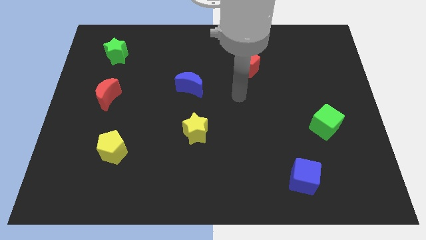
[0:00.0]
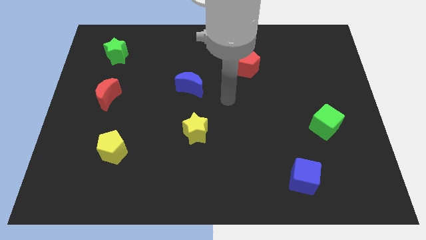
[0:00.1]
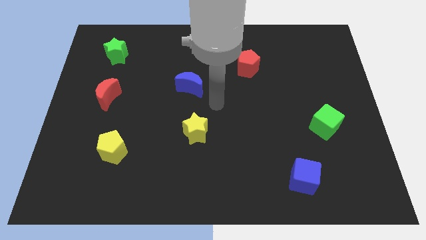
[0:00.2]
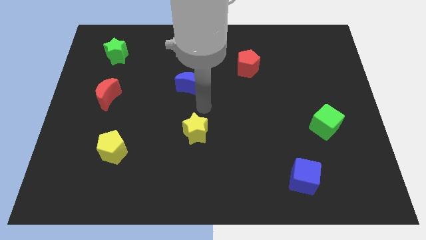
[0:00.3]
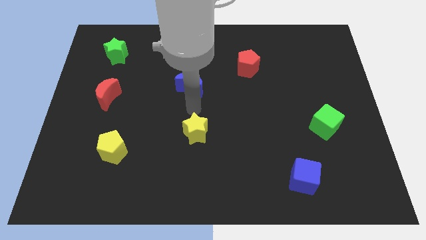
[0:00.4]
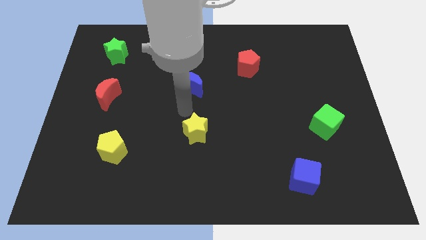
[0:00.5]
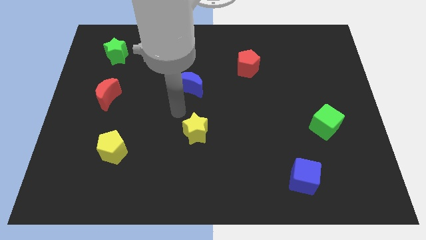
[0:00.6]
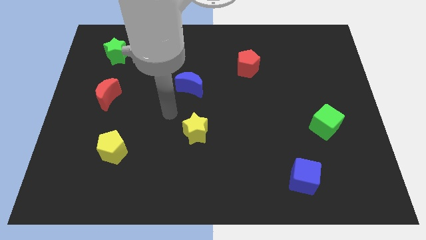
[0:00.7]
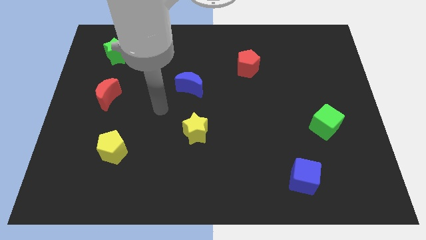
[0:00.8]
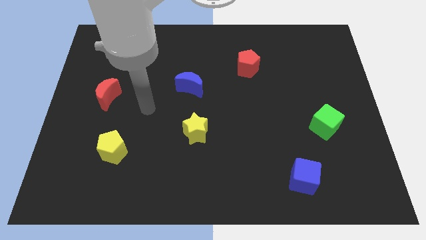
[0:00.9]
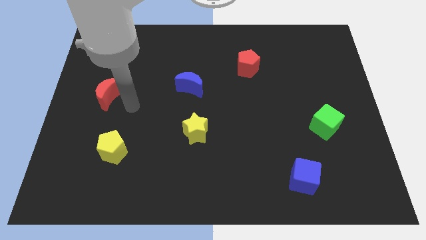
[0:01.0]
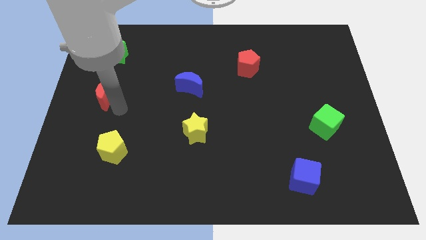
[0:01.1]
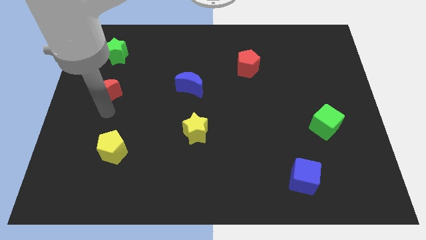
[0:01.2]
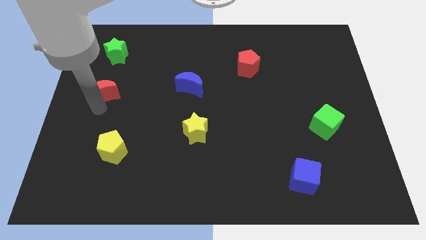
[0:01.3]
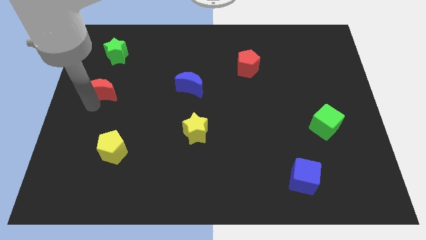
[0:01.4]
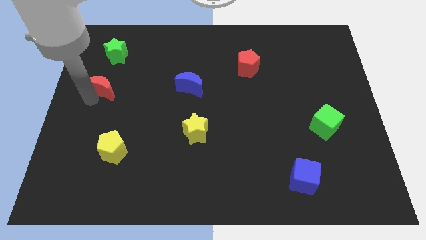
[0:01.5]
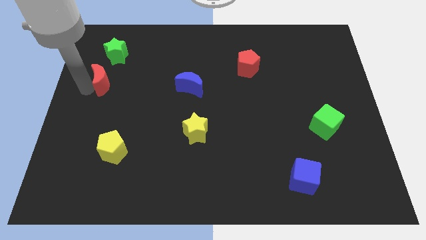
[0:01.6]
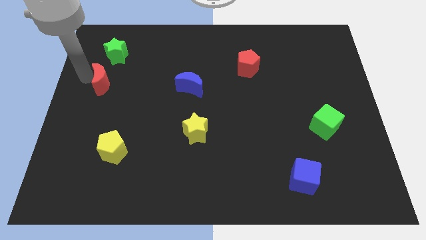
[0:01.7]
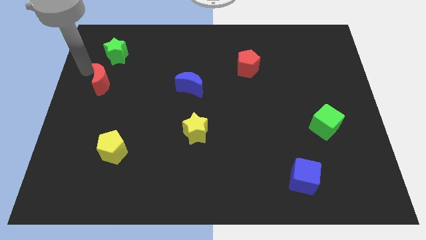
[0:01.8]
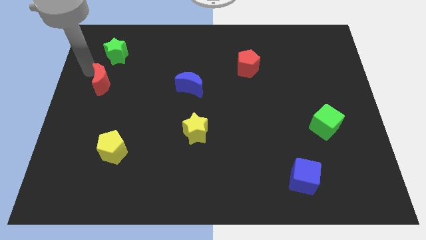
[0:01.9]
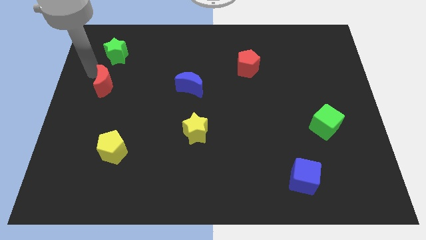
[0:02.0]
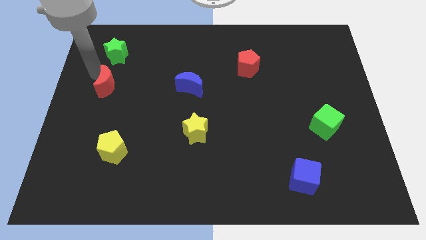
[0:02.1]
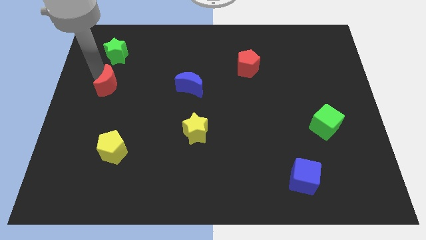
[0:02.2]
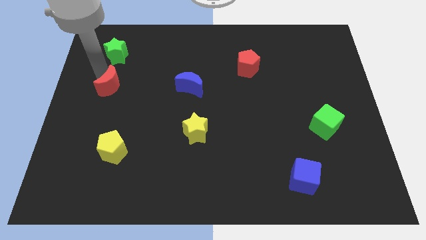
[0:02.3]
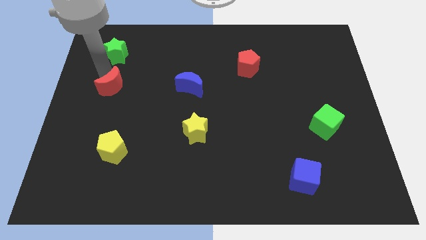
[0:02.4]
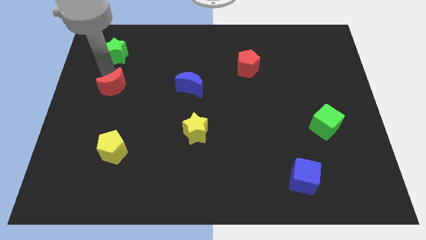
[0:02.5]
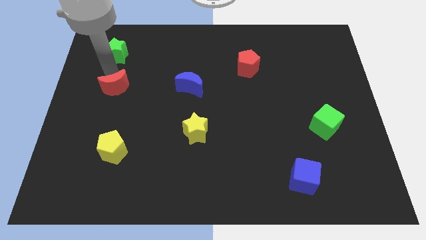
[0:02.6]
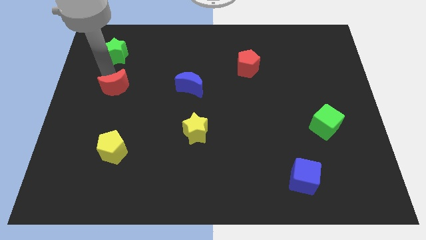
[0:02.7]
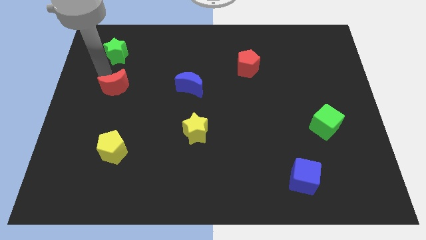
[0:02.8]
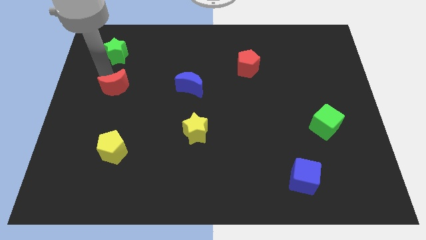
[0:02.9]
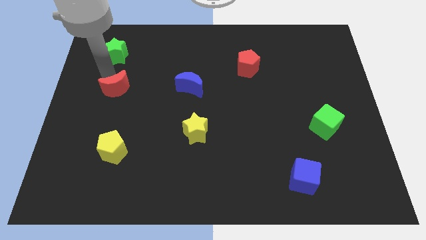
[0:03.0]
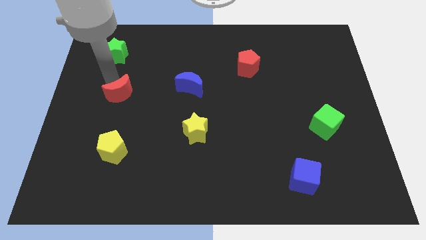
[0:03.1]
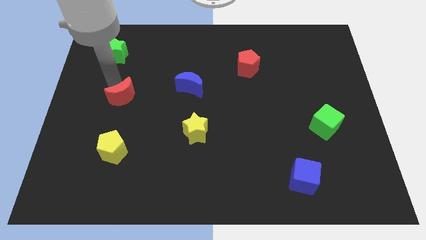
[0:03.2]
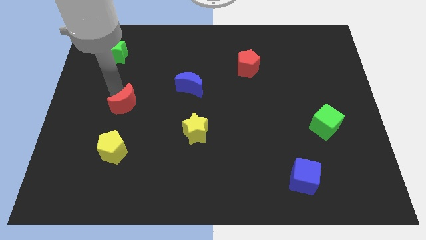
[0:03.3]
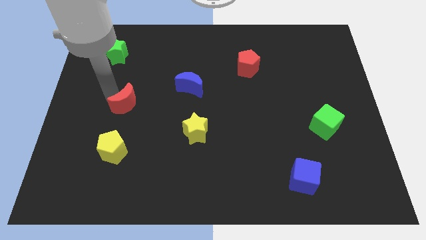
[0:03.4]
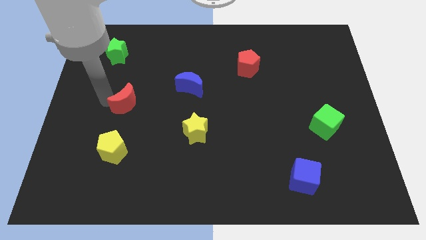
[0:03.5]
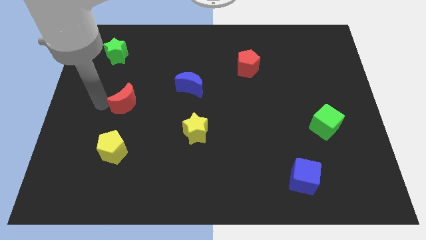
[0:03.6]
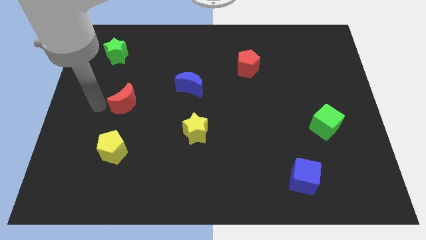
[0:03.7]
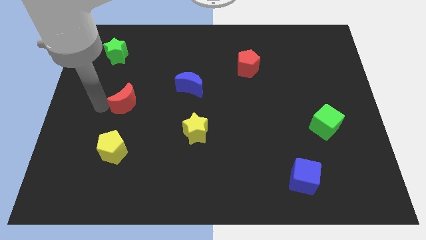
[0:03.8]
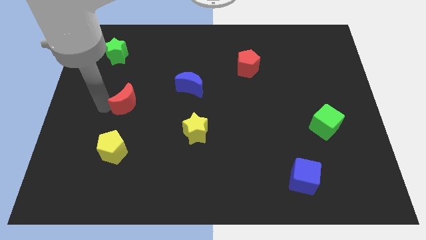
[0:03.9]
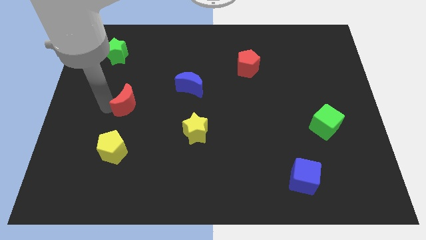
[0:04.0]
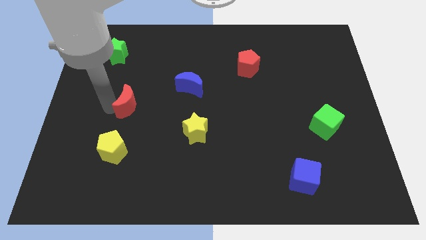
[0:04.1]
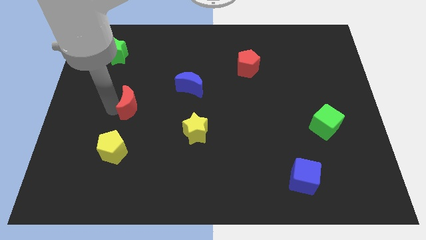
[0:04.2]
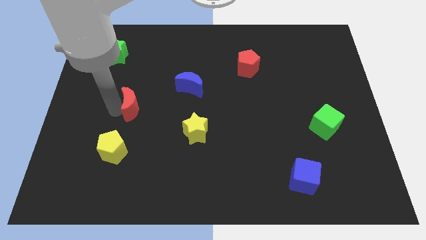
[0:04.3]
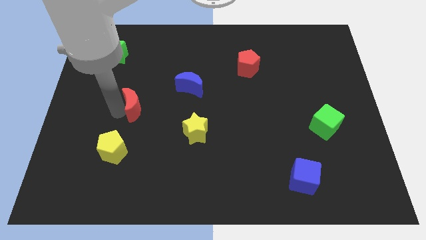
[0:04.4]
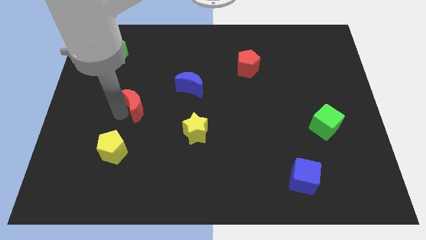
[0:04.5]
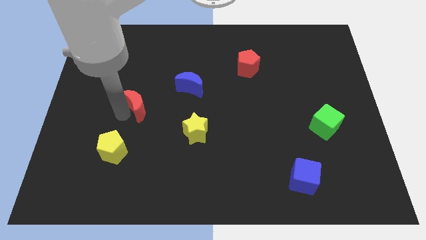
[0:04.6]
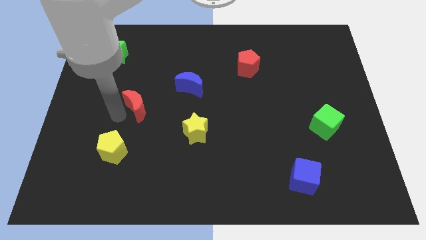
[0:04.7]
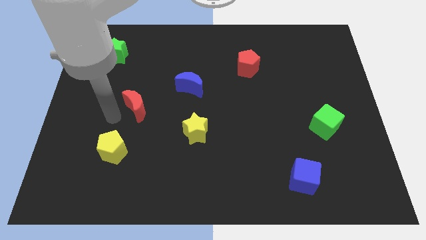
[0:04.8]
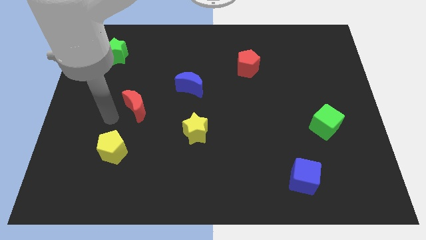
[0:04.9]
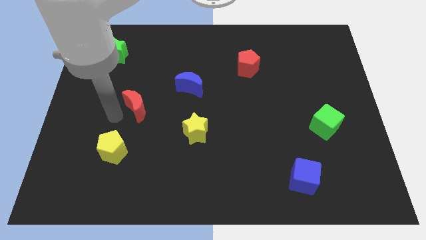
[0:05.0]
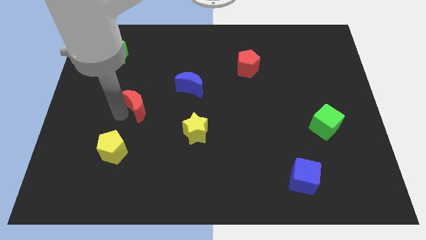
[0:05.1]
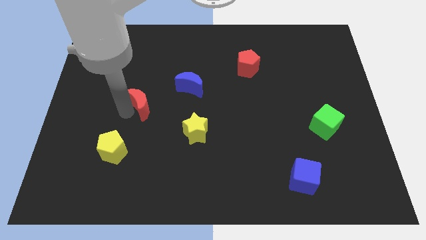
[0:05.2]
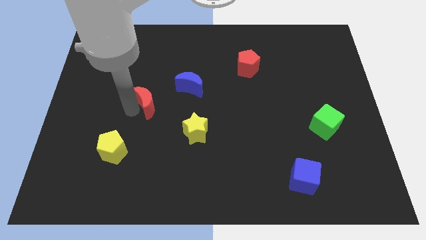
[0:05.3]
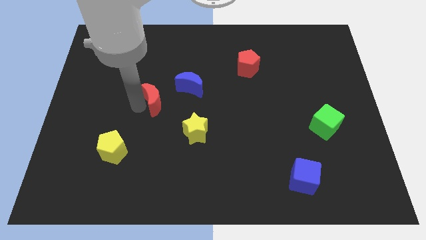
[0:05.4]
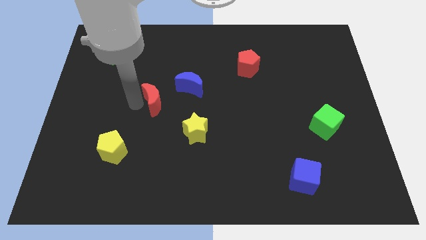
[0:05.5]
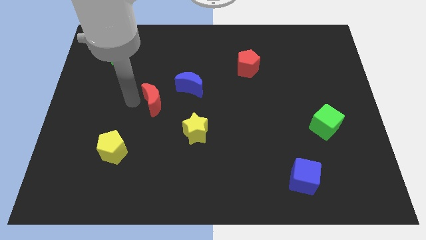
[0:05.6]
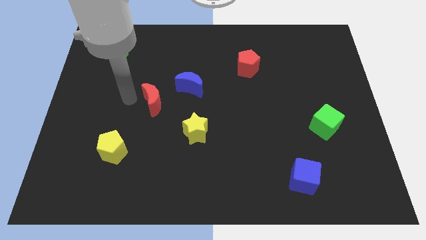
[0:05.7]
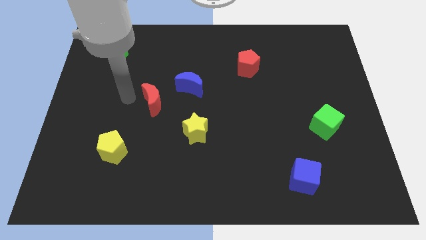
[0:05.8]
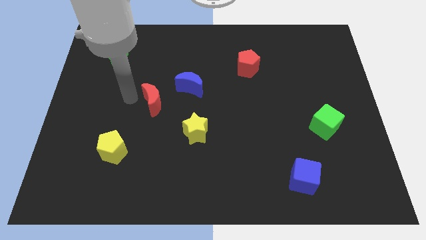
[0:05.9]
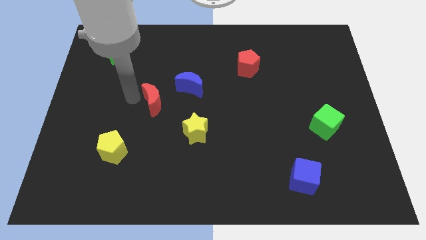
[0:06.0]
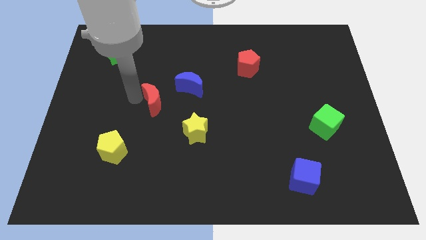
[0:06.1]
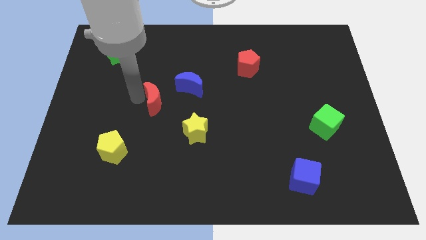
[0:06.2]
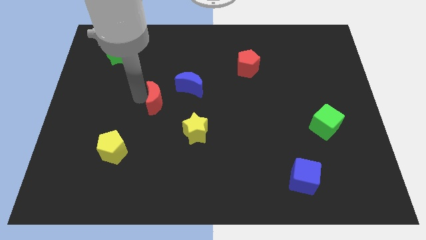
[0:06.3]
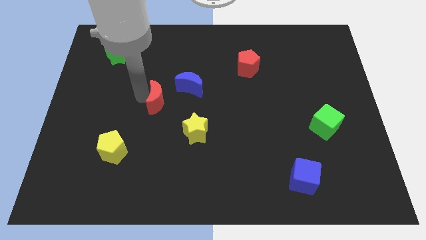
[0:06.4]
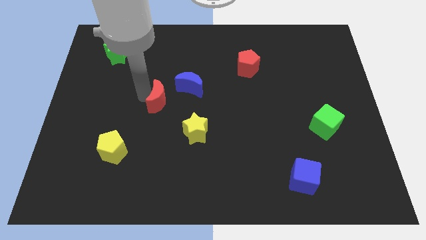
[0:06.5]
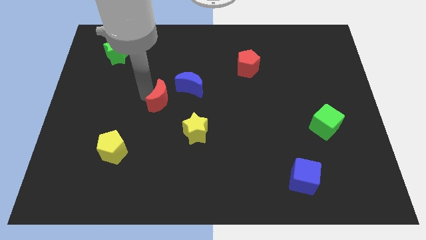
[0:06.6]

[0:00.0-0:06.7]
put the red moon to the center of the board
